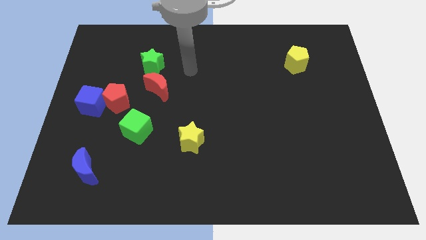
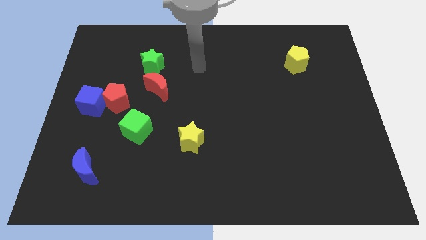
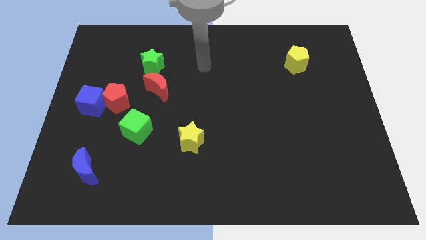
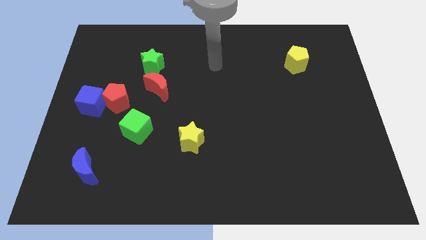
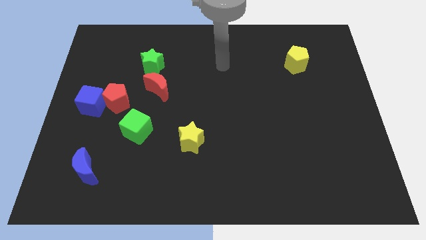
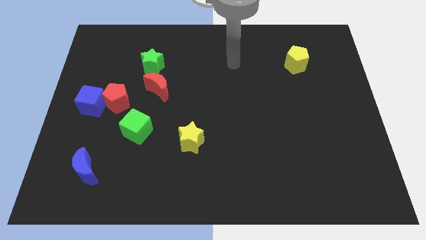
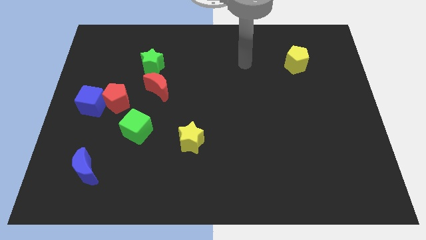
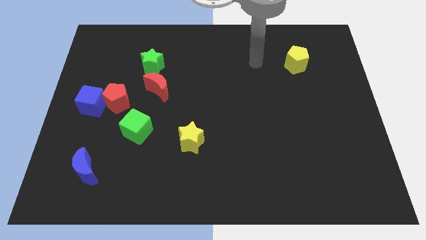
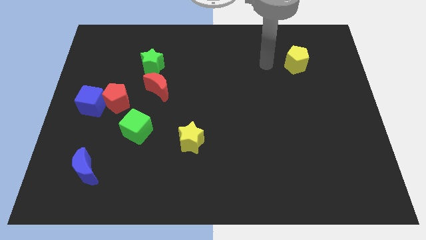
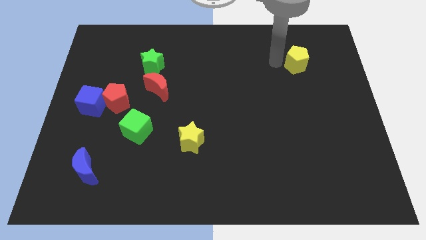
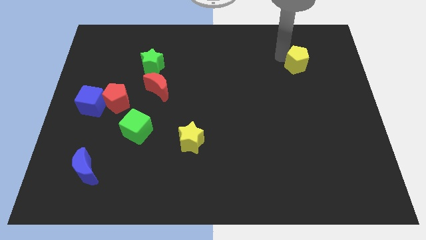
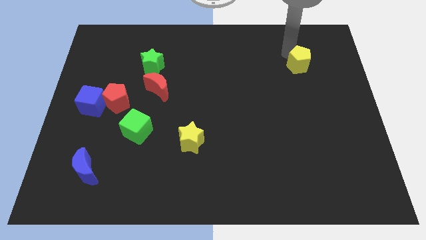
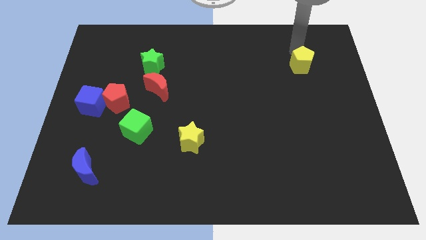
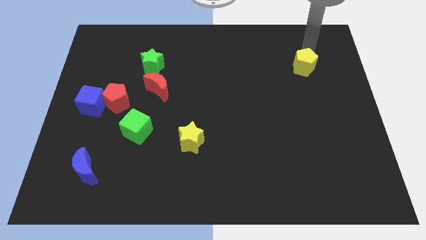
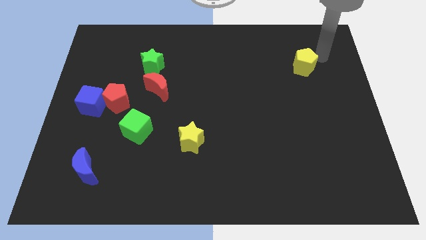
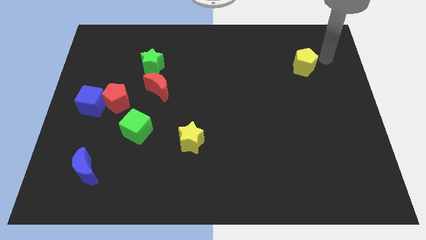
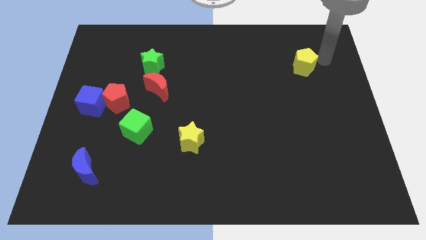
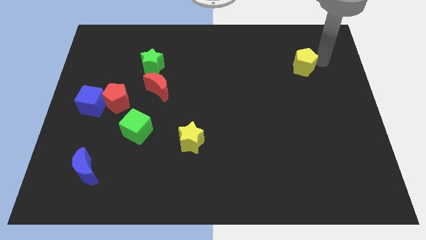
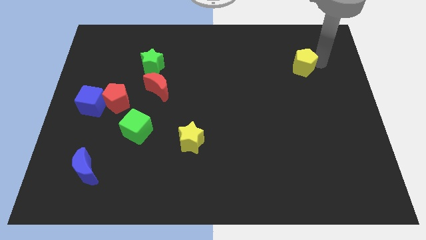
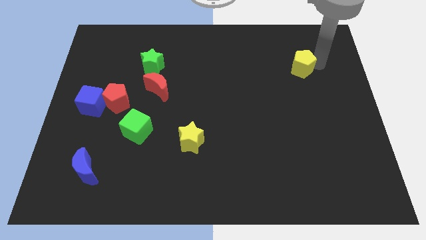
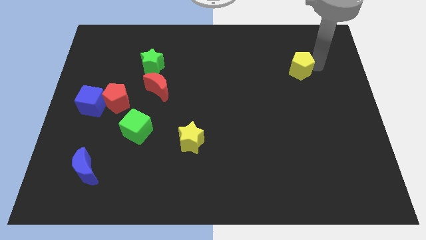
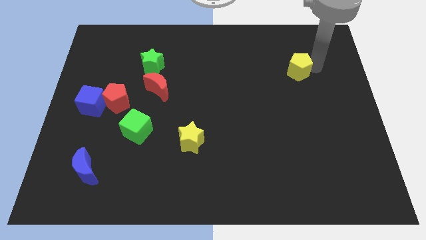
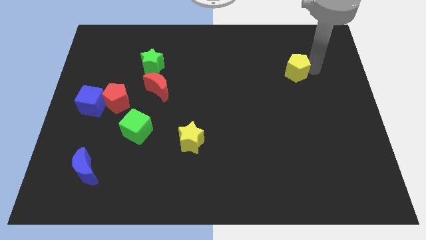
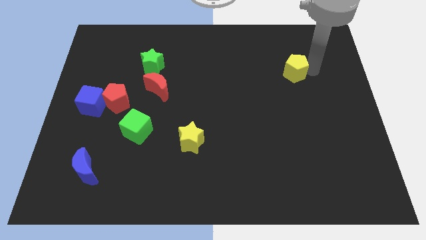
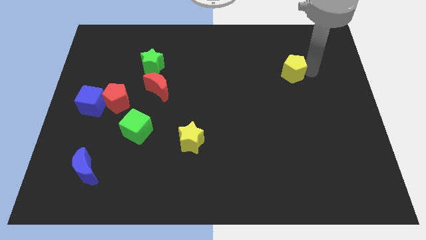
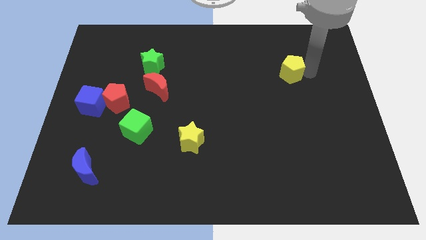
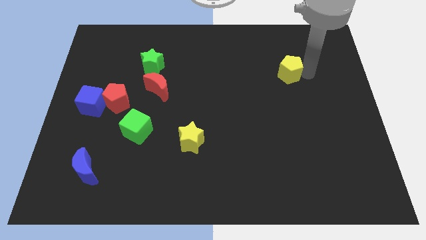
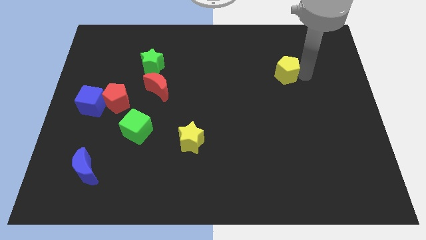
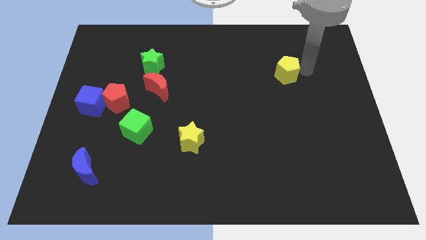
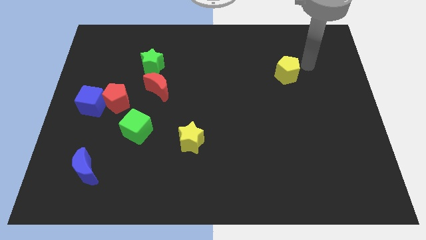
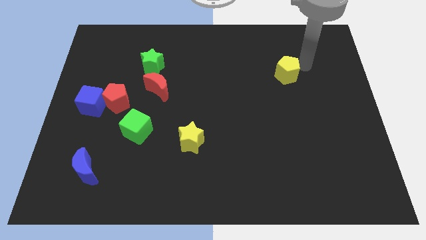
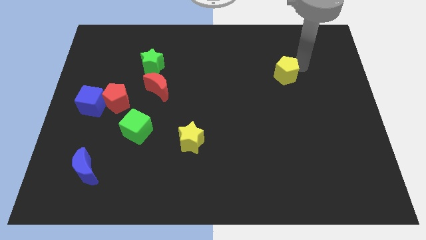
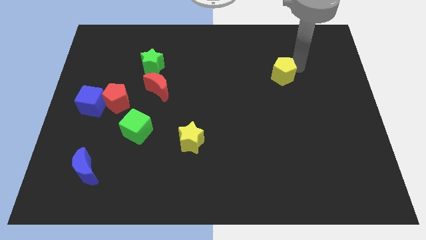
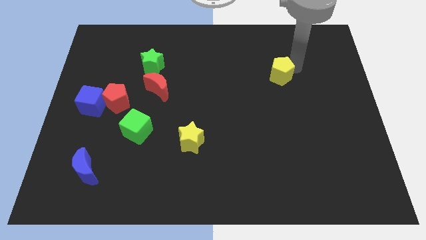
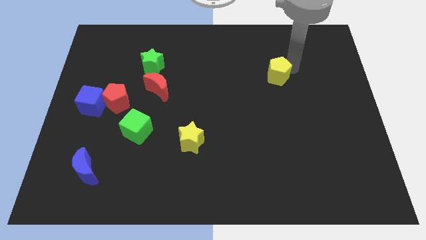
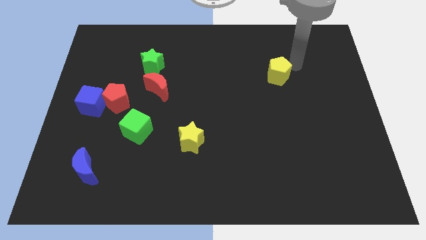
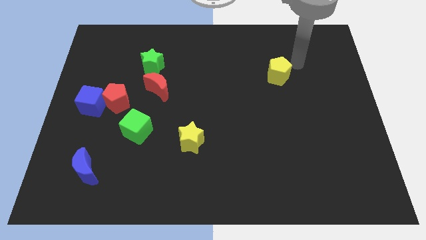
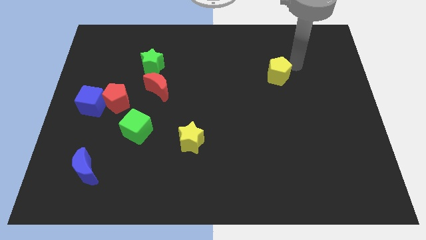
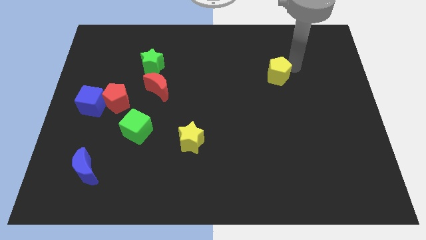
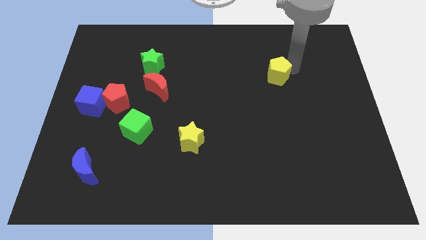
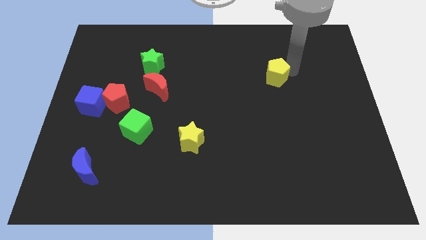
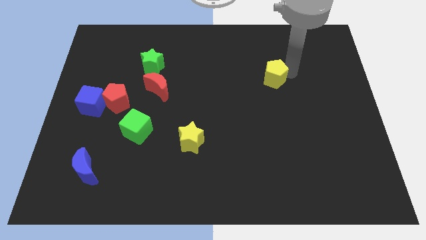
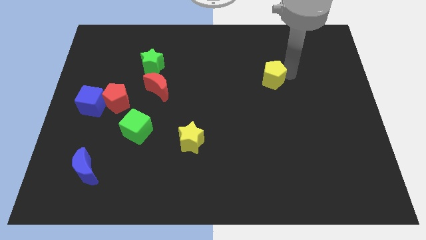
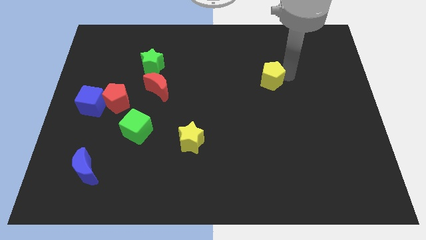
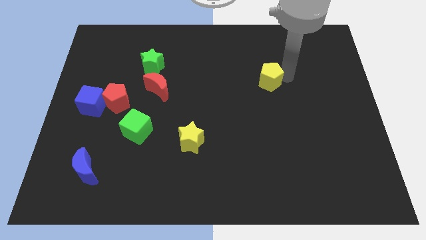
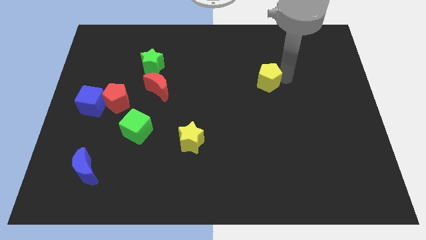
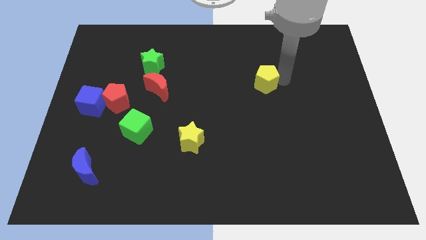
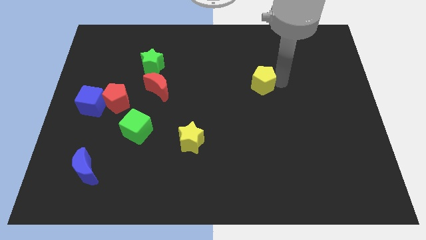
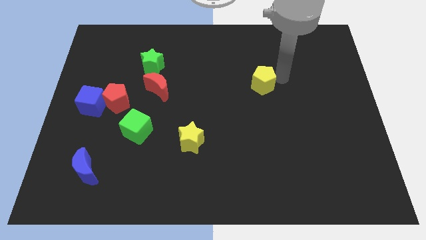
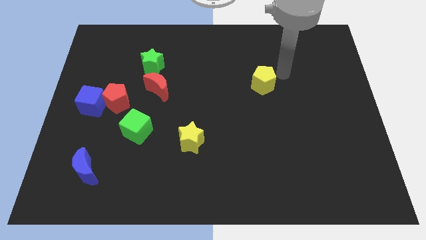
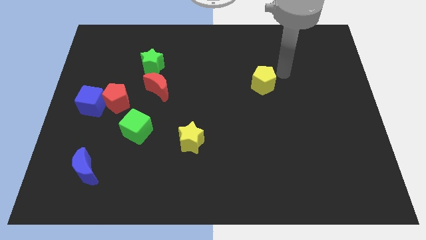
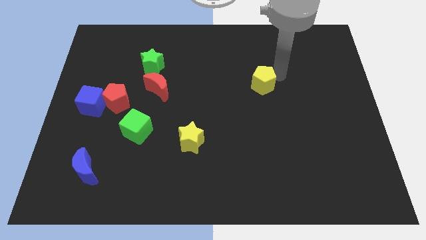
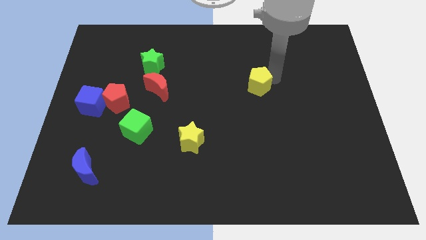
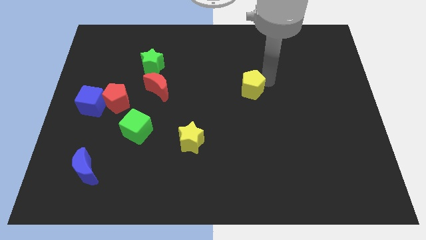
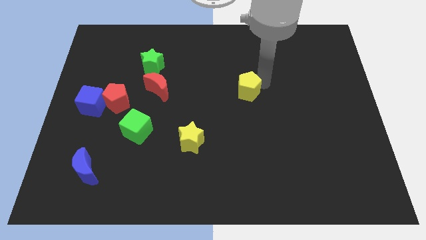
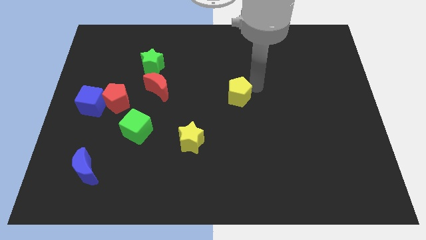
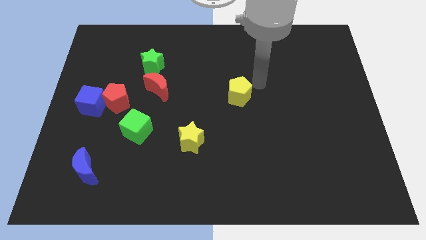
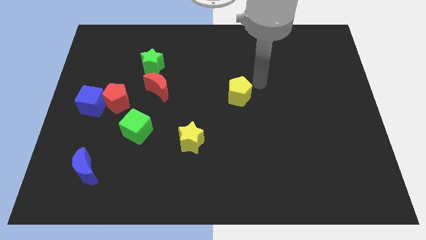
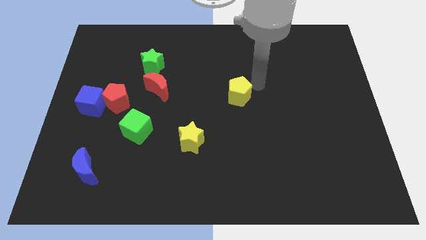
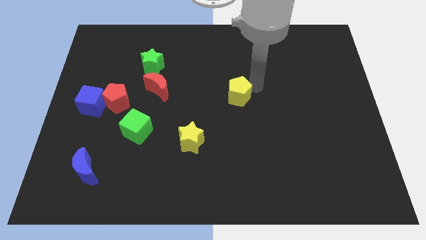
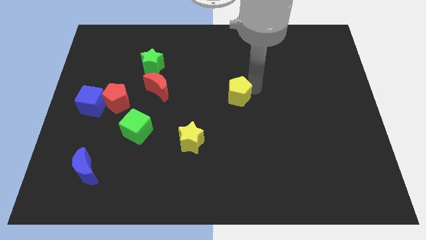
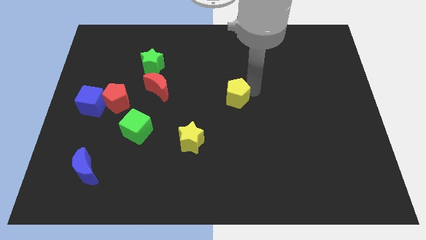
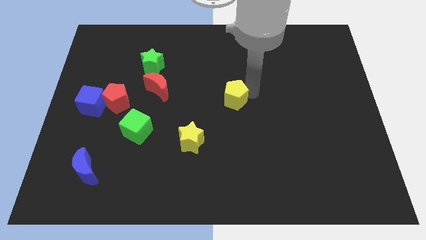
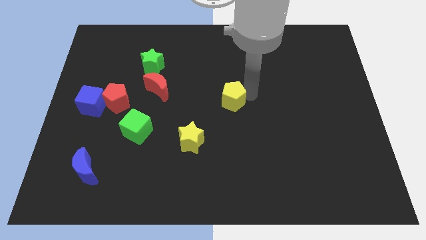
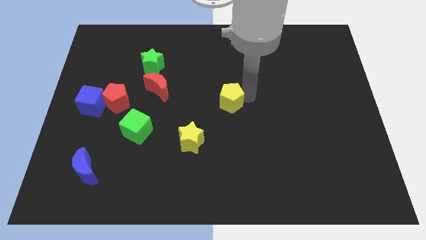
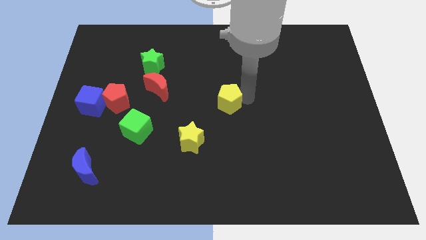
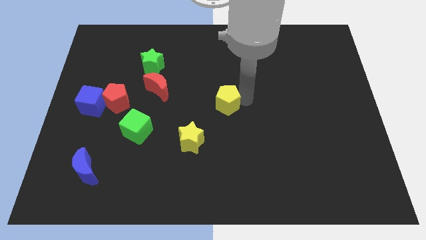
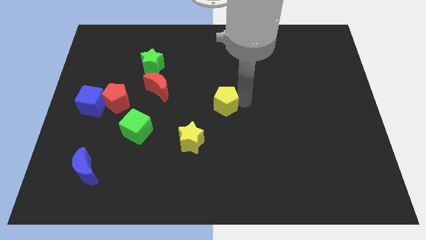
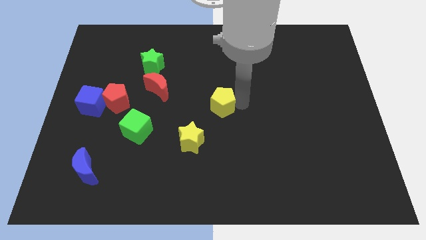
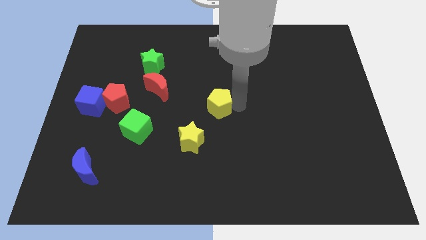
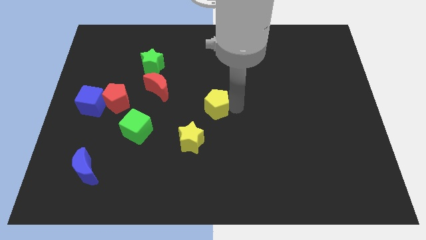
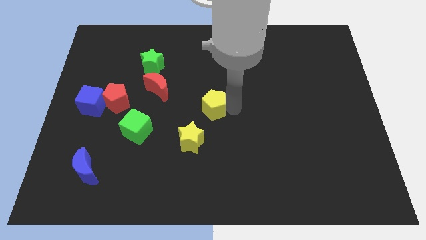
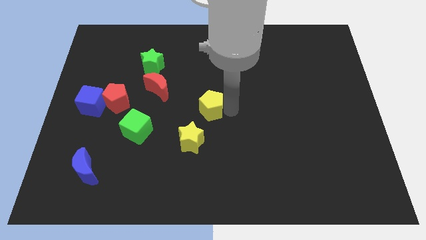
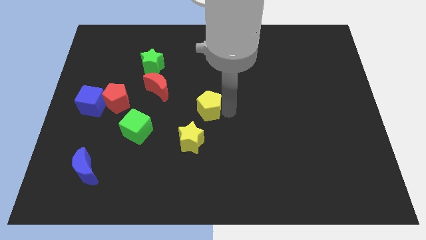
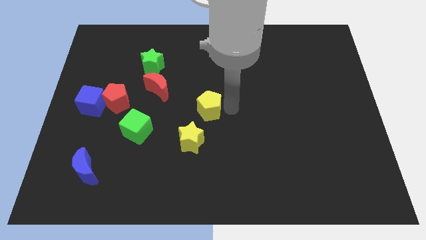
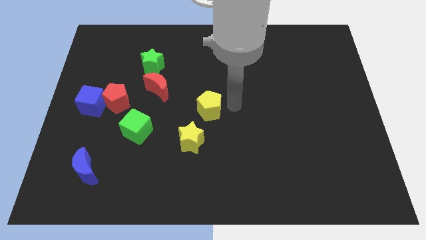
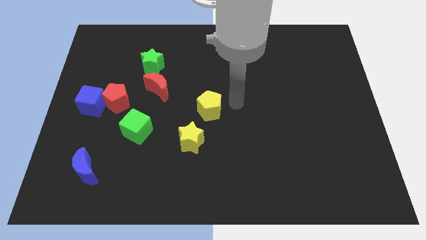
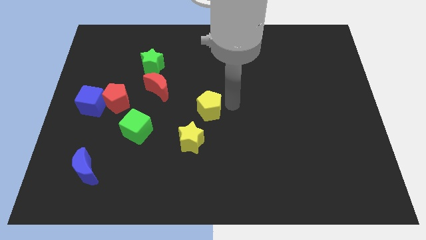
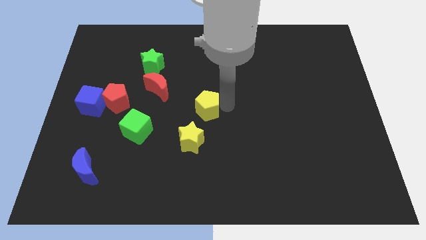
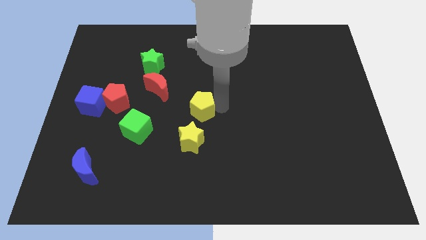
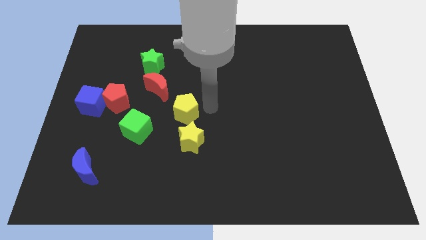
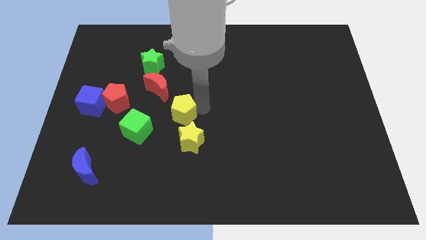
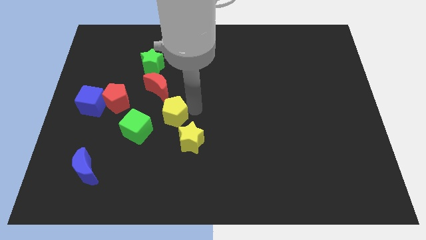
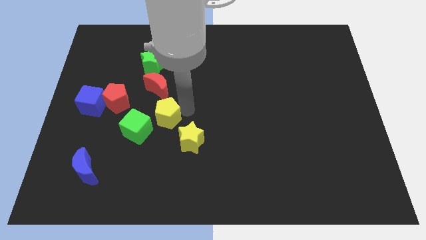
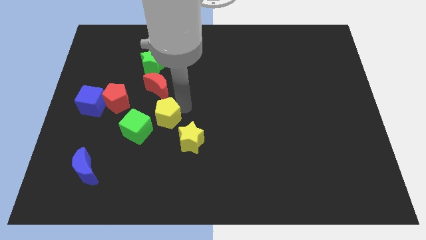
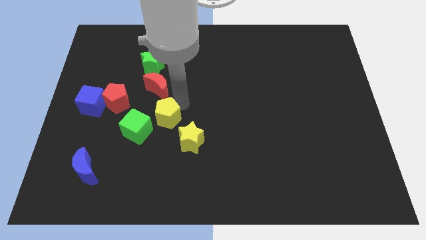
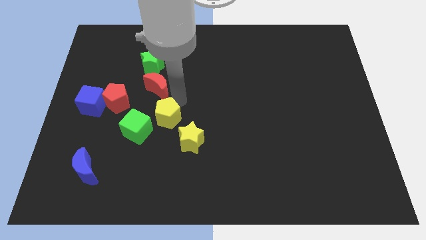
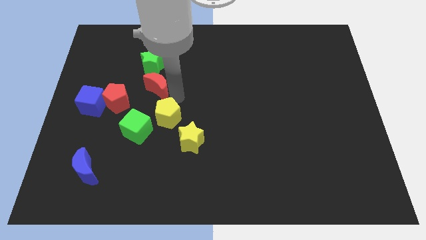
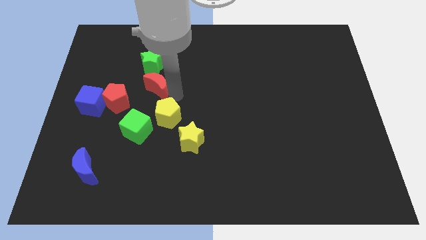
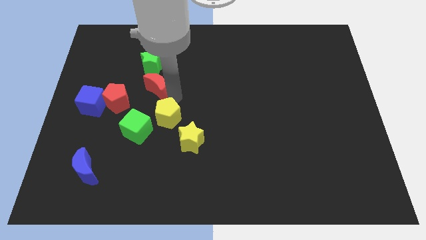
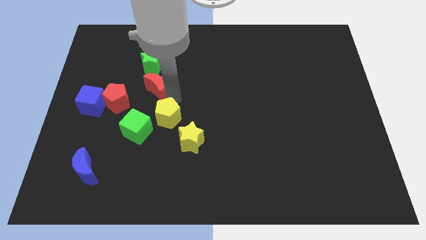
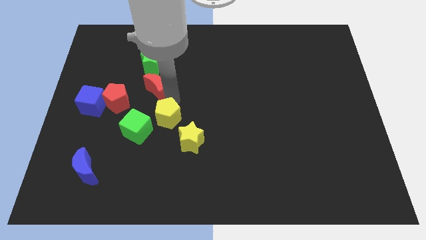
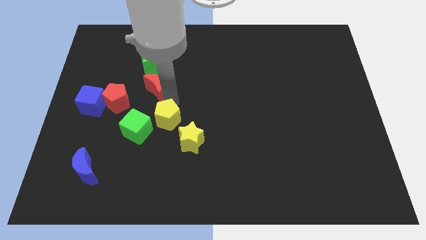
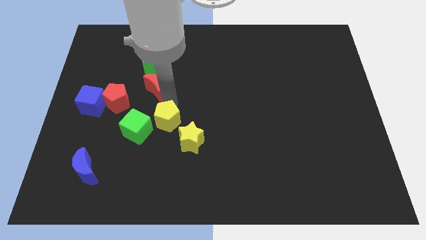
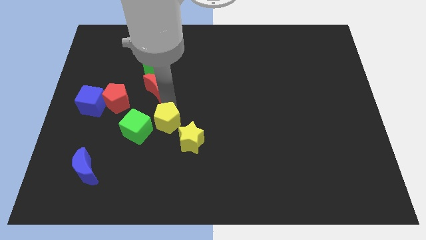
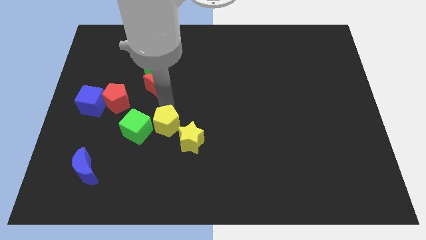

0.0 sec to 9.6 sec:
slide the yellow pentagon left of the yellow star
